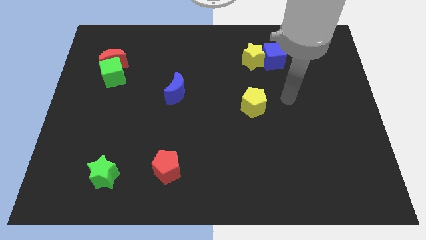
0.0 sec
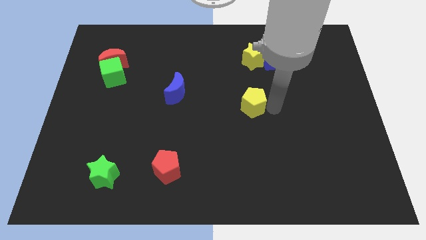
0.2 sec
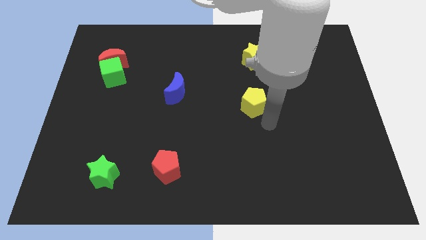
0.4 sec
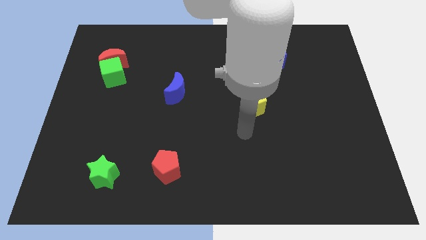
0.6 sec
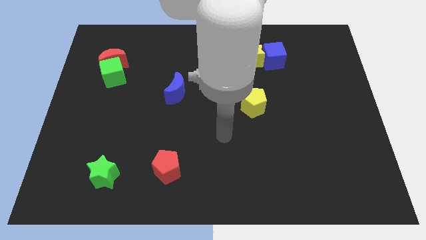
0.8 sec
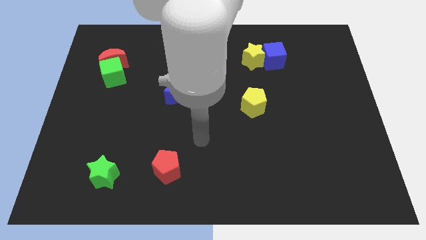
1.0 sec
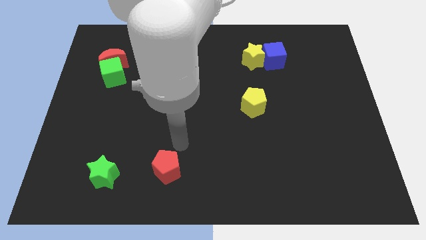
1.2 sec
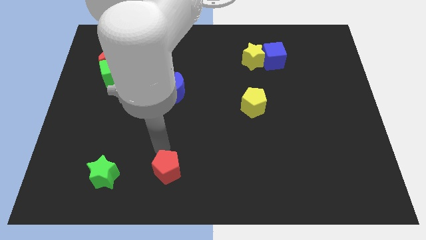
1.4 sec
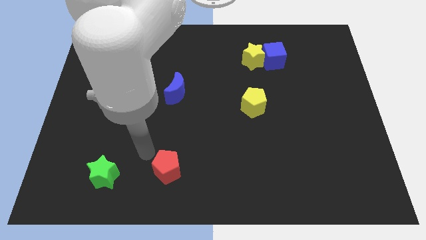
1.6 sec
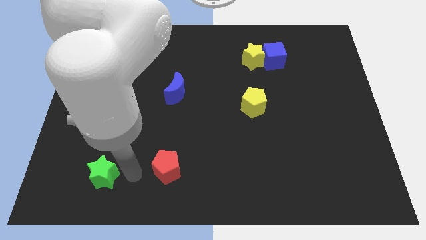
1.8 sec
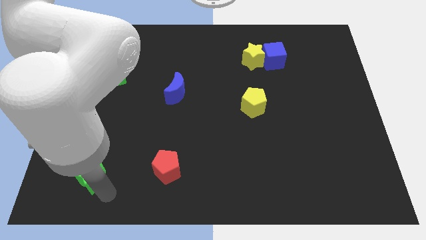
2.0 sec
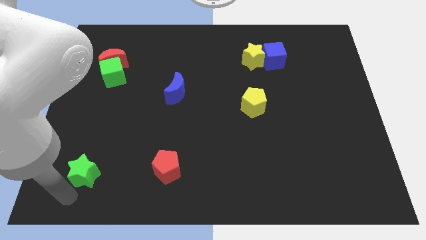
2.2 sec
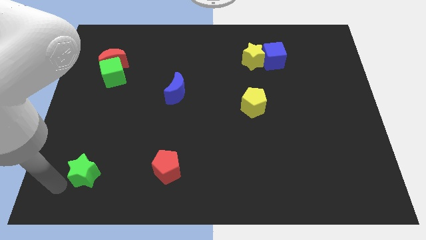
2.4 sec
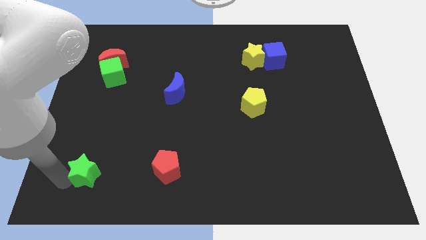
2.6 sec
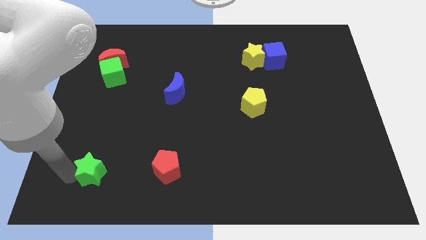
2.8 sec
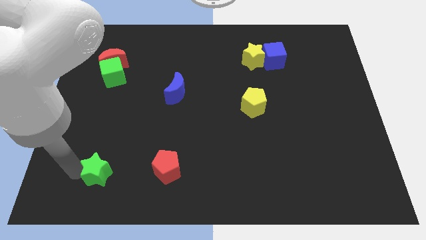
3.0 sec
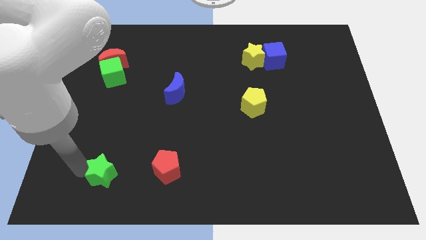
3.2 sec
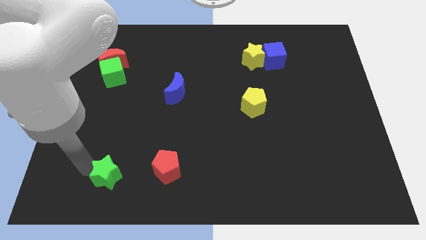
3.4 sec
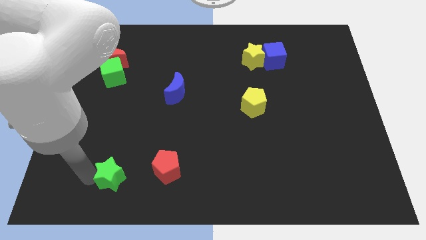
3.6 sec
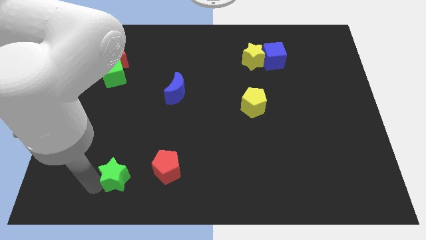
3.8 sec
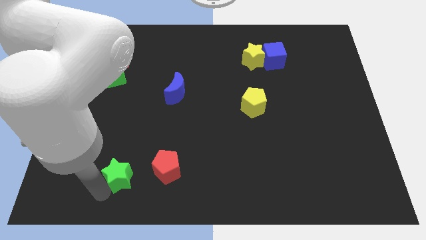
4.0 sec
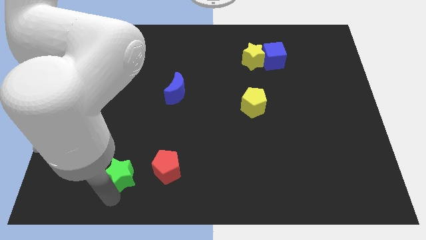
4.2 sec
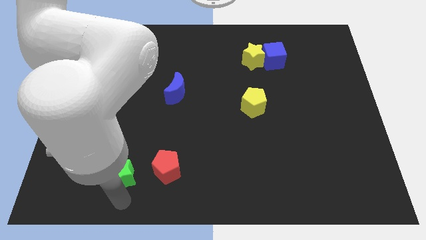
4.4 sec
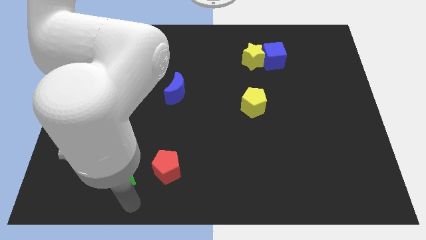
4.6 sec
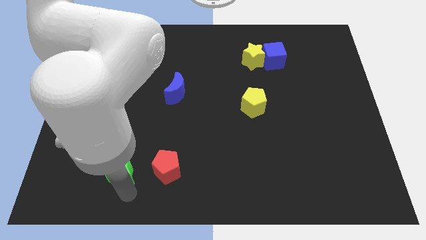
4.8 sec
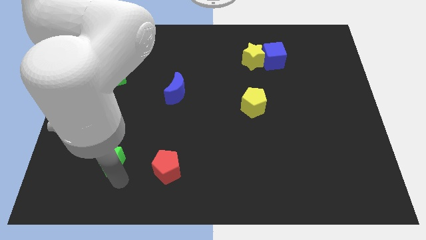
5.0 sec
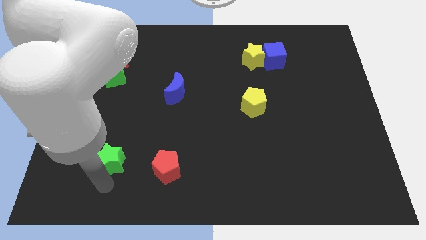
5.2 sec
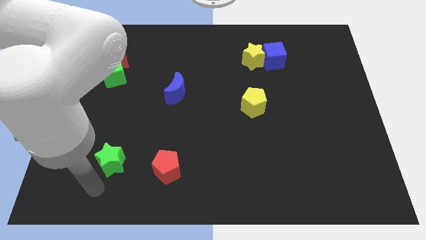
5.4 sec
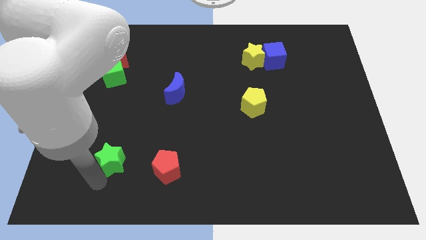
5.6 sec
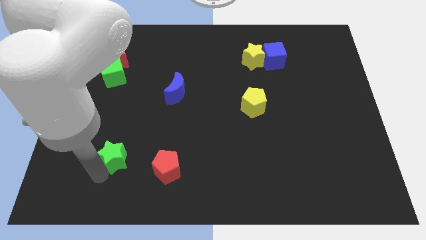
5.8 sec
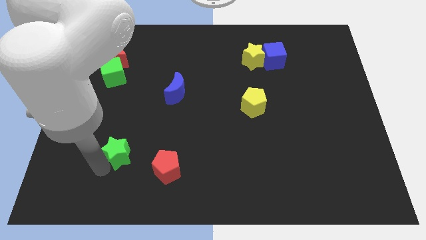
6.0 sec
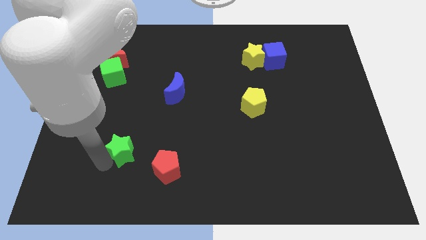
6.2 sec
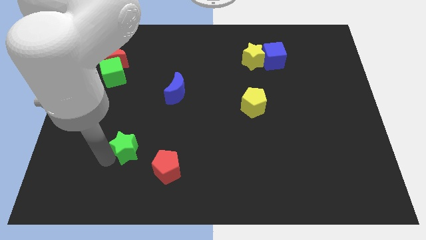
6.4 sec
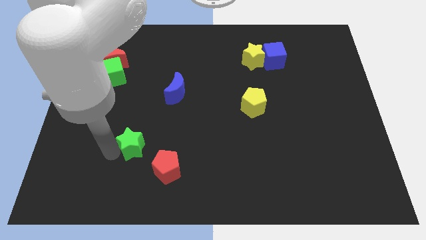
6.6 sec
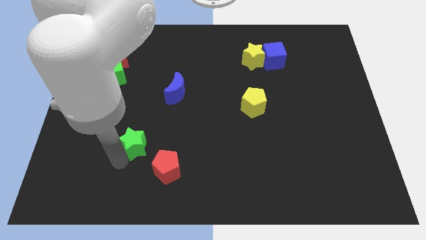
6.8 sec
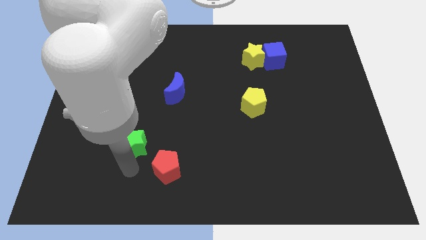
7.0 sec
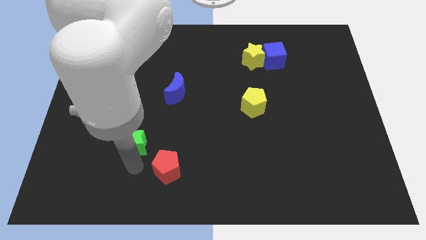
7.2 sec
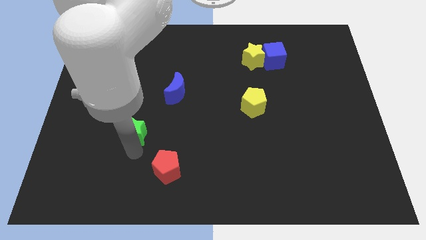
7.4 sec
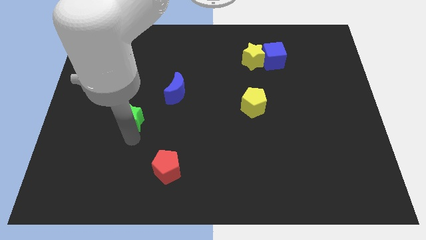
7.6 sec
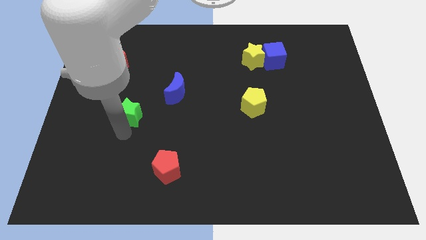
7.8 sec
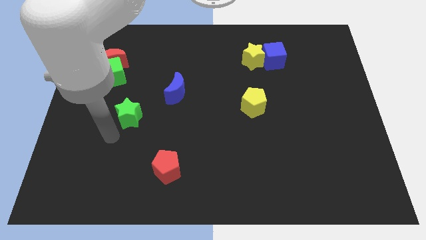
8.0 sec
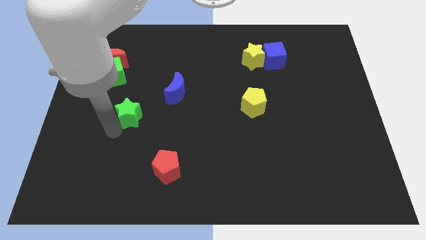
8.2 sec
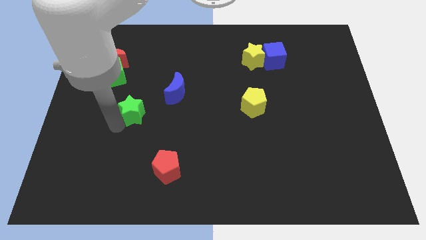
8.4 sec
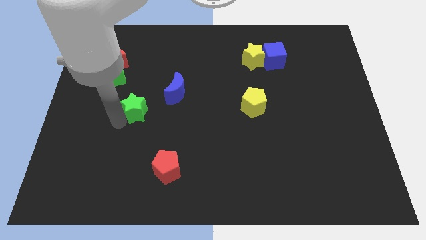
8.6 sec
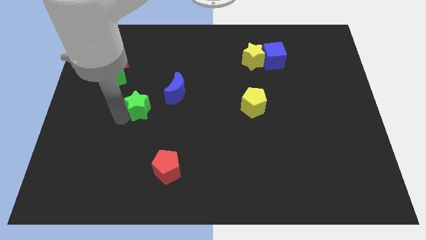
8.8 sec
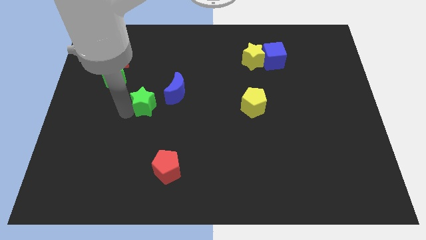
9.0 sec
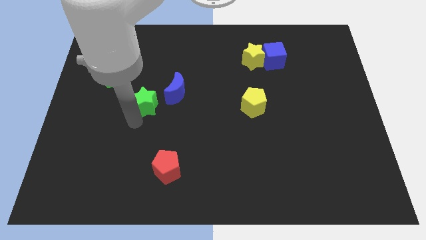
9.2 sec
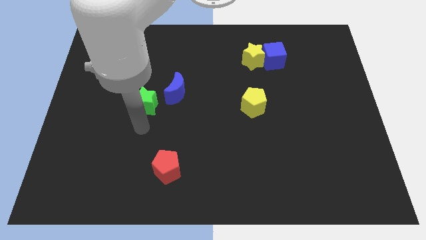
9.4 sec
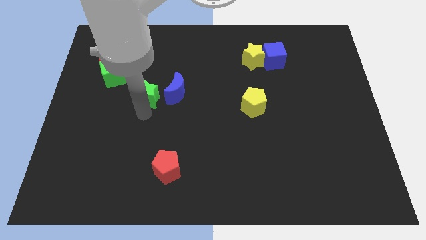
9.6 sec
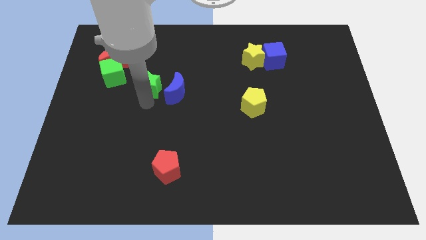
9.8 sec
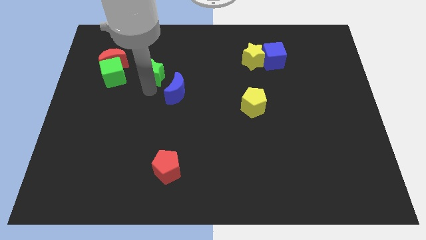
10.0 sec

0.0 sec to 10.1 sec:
move the green star just right of the red moon

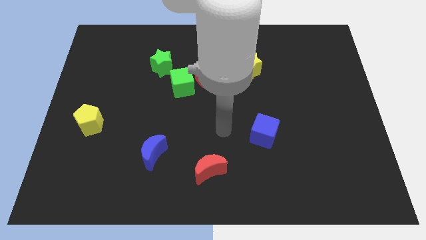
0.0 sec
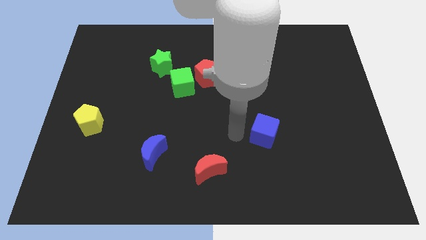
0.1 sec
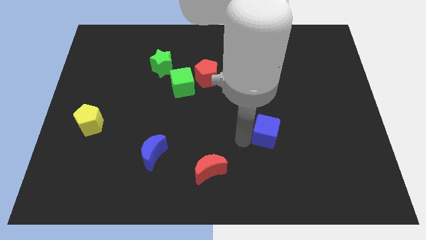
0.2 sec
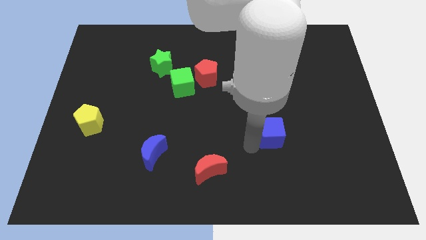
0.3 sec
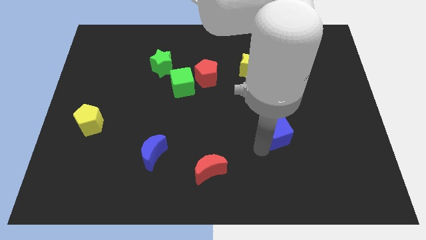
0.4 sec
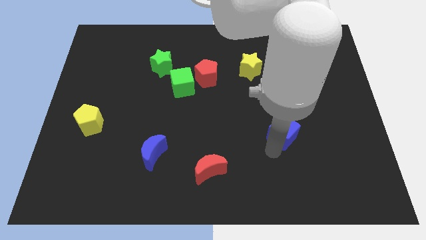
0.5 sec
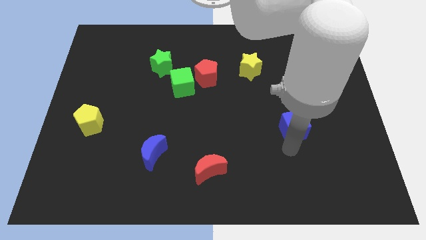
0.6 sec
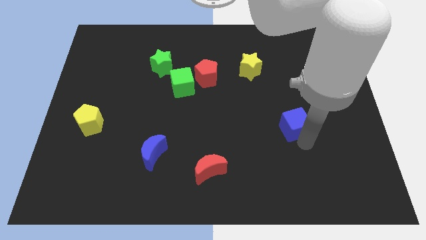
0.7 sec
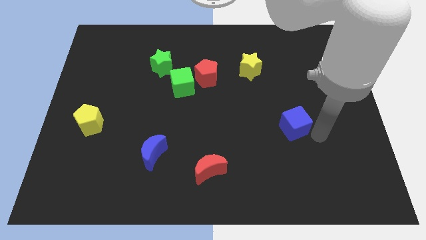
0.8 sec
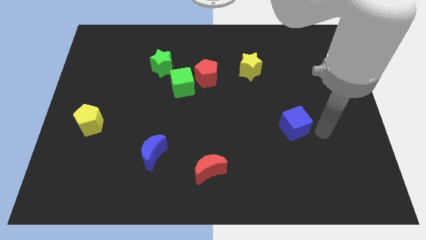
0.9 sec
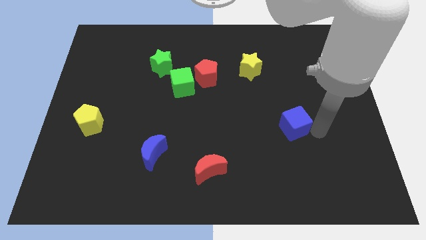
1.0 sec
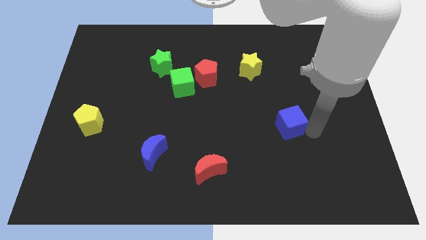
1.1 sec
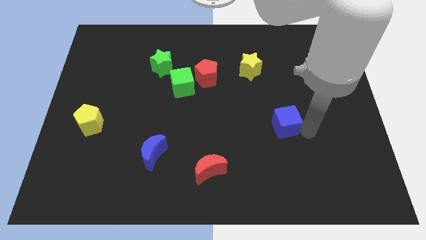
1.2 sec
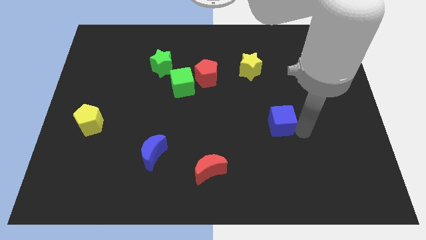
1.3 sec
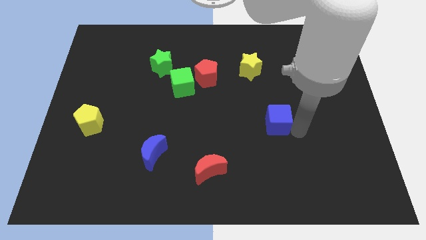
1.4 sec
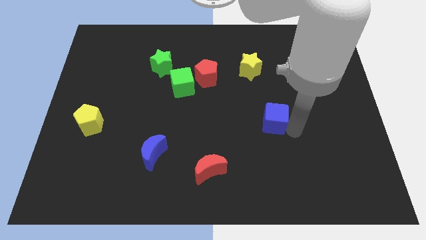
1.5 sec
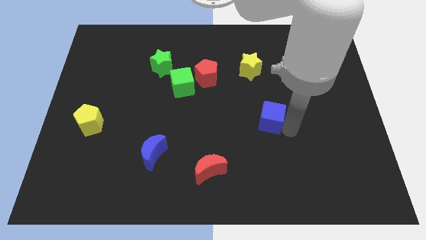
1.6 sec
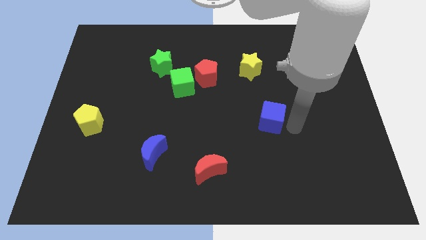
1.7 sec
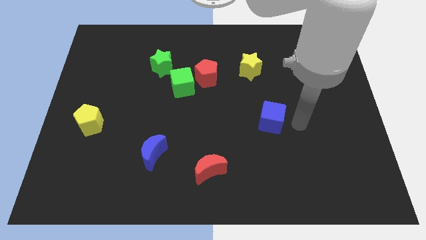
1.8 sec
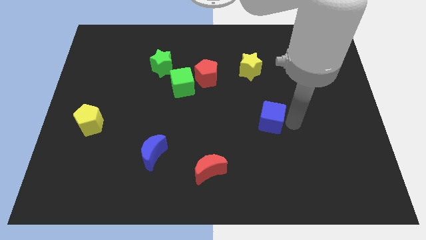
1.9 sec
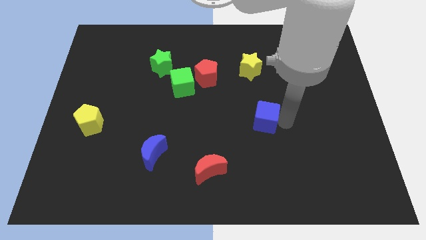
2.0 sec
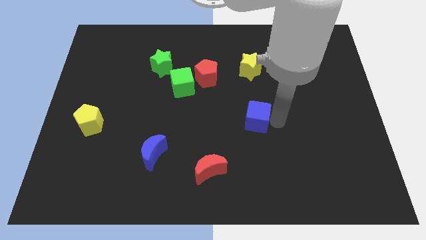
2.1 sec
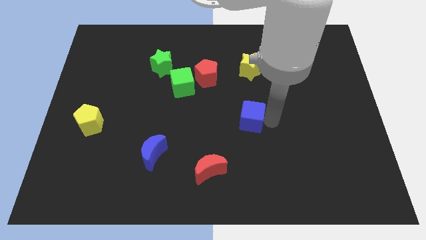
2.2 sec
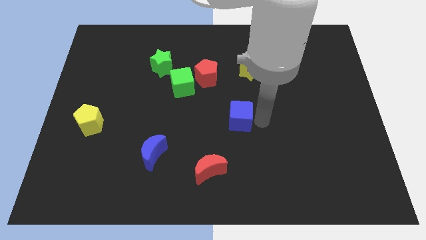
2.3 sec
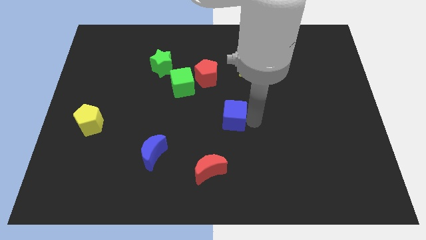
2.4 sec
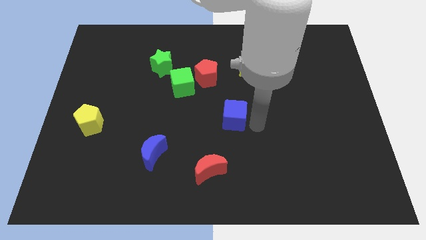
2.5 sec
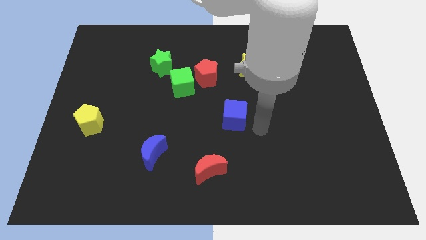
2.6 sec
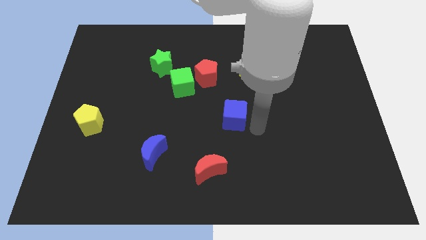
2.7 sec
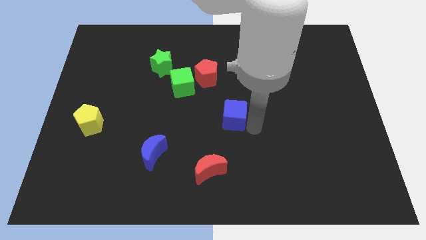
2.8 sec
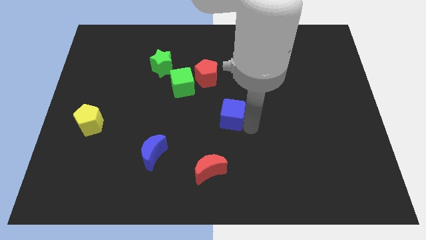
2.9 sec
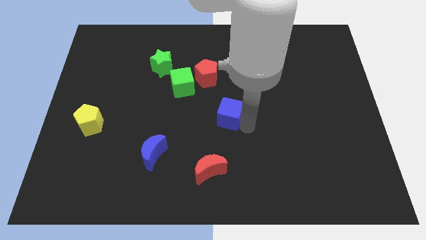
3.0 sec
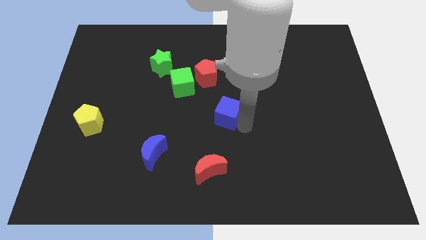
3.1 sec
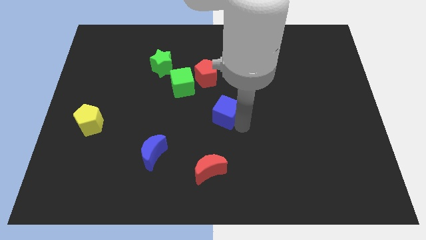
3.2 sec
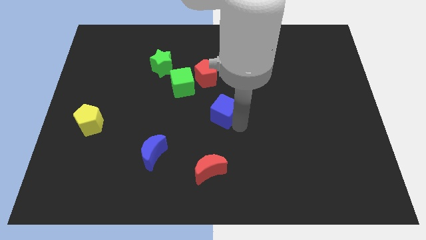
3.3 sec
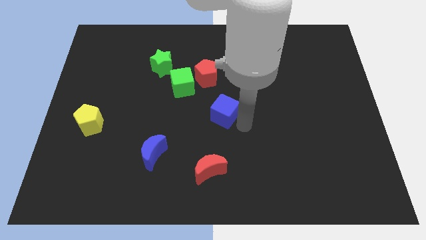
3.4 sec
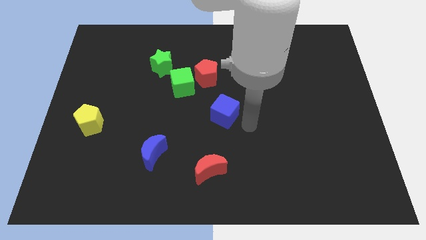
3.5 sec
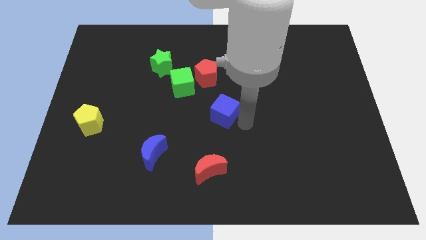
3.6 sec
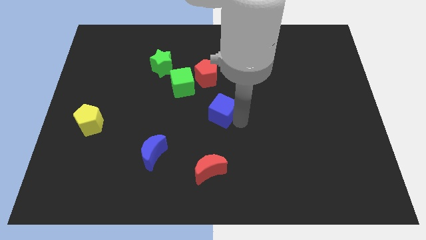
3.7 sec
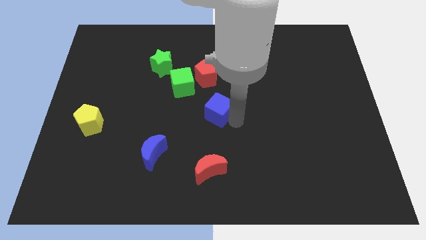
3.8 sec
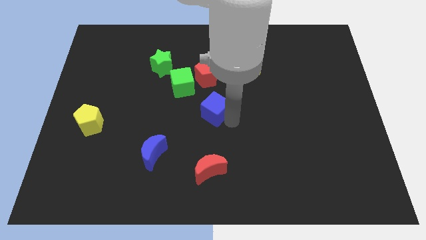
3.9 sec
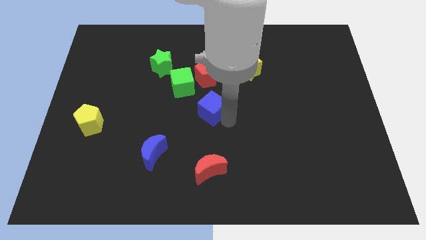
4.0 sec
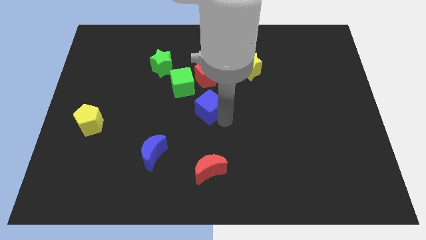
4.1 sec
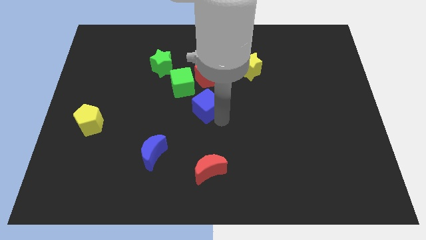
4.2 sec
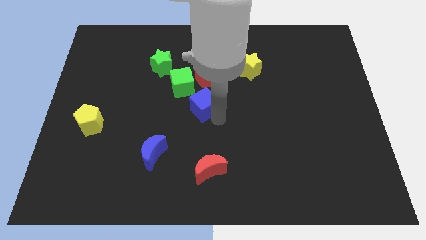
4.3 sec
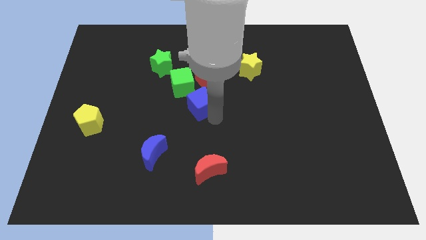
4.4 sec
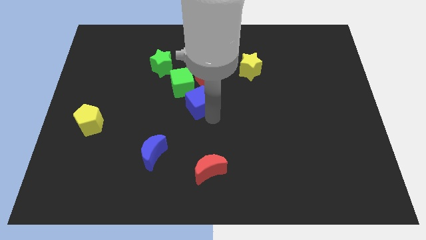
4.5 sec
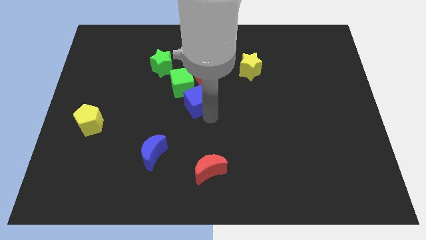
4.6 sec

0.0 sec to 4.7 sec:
slide the blue cube to the bottom left side of the red pentagon
